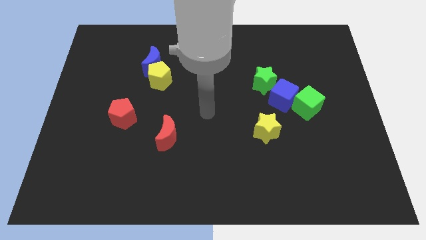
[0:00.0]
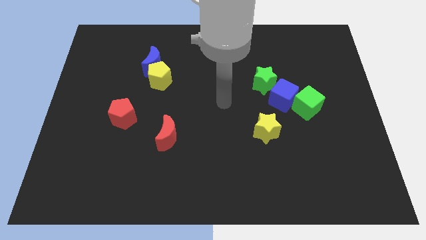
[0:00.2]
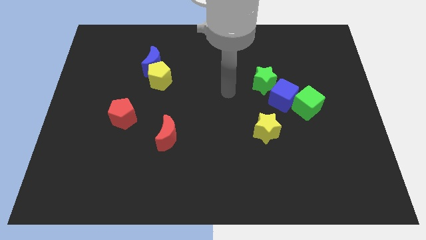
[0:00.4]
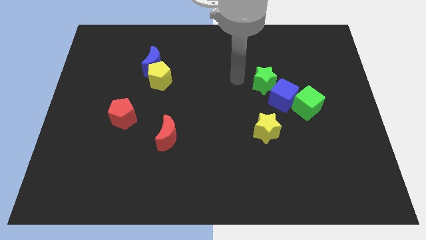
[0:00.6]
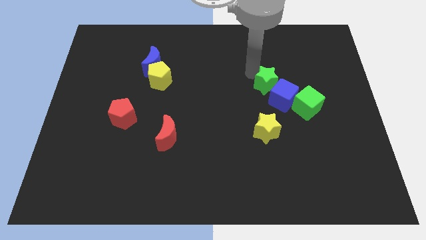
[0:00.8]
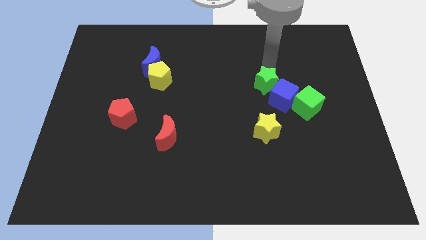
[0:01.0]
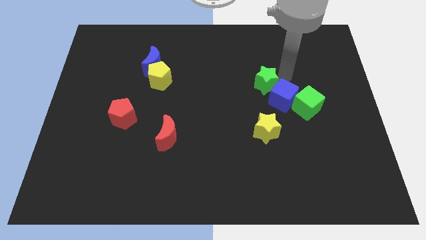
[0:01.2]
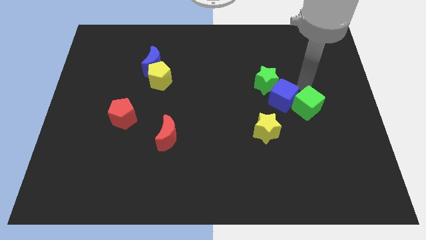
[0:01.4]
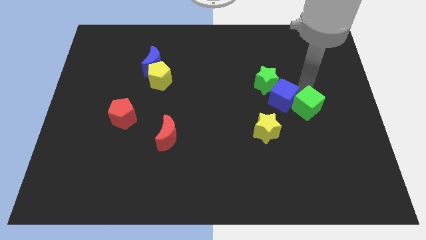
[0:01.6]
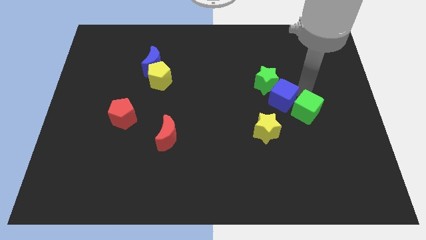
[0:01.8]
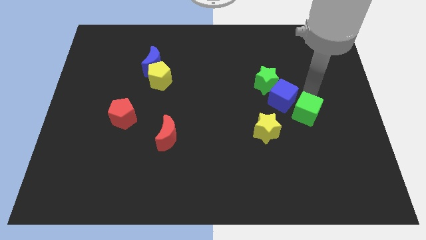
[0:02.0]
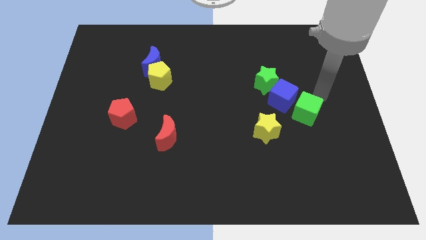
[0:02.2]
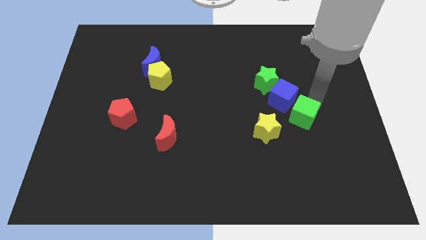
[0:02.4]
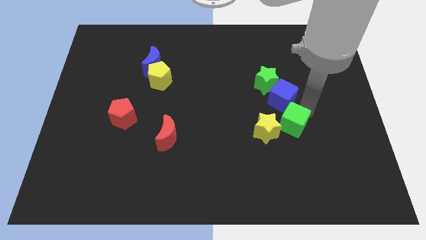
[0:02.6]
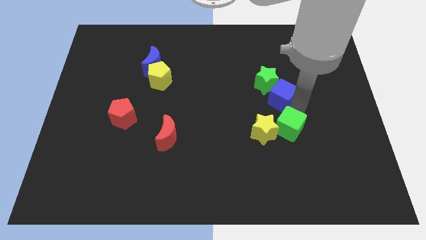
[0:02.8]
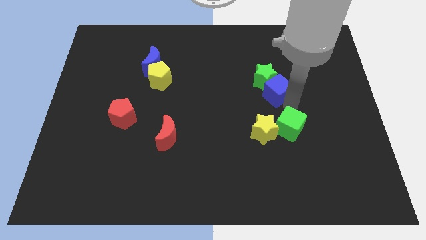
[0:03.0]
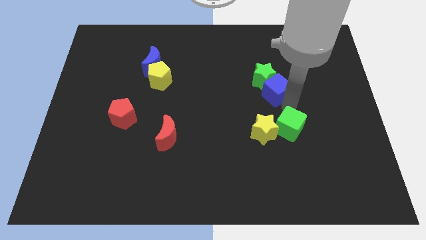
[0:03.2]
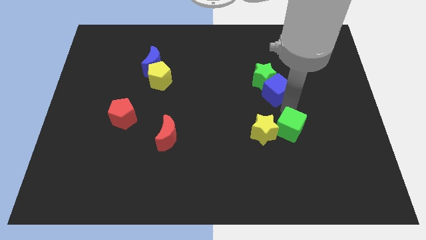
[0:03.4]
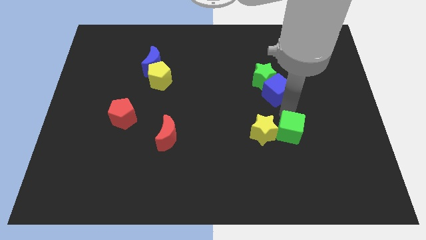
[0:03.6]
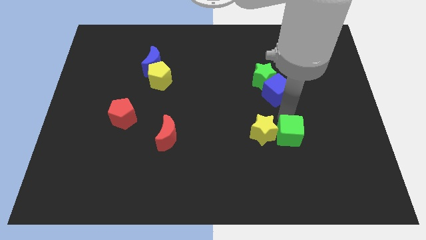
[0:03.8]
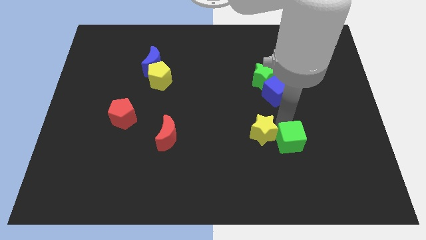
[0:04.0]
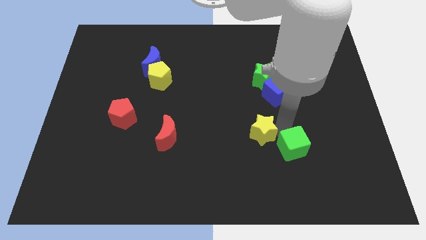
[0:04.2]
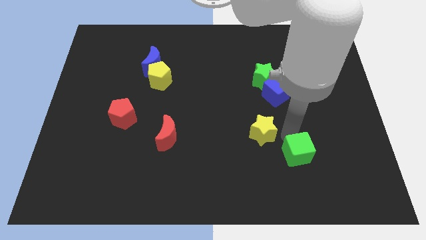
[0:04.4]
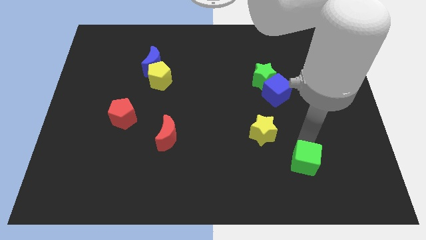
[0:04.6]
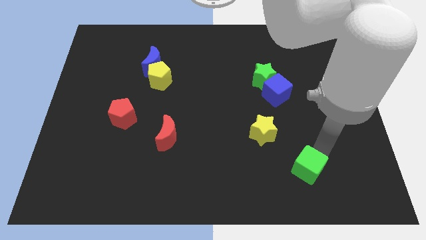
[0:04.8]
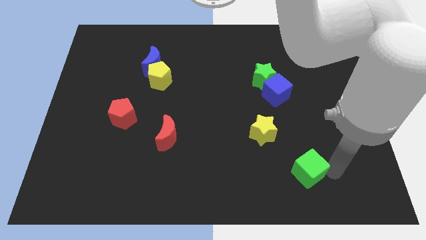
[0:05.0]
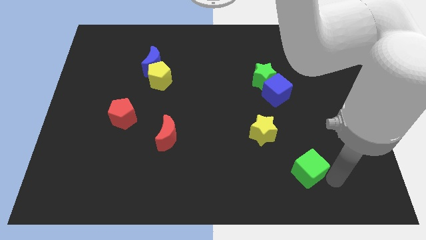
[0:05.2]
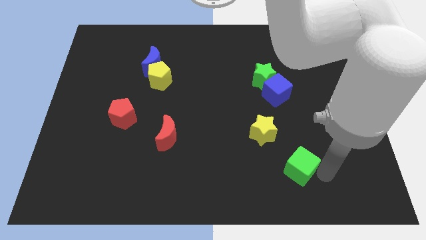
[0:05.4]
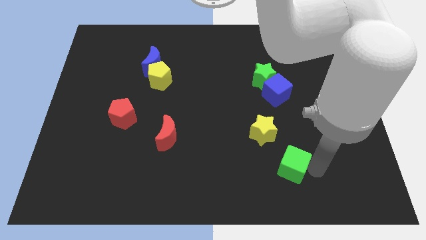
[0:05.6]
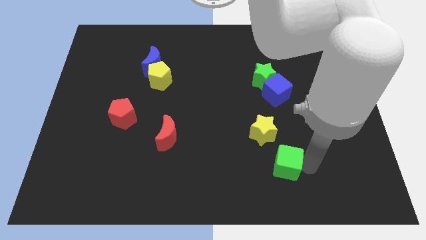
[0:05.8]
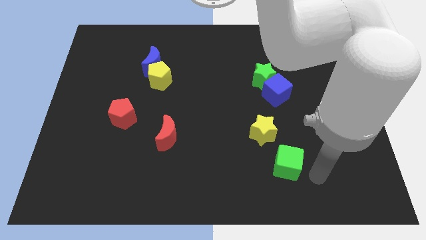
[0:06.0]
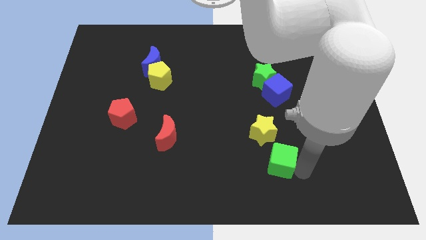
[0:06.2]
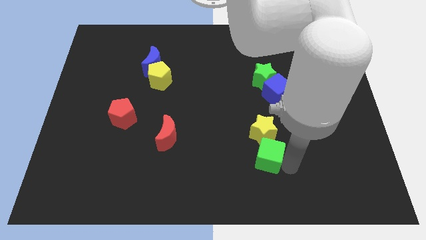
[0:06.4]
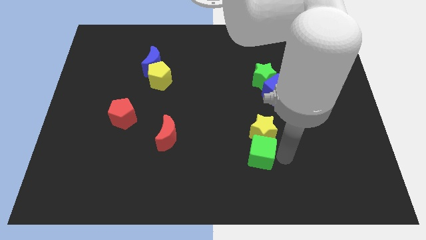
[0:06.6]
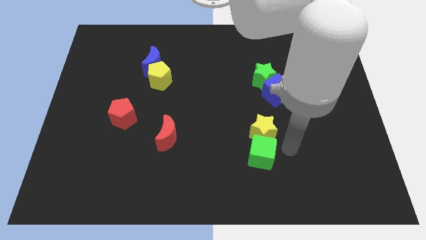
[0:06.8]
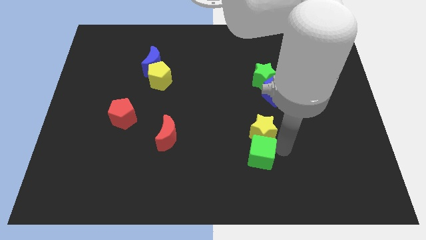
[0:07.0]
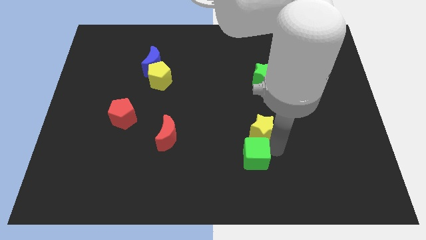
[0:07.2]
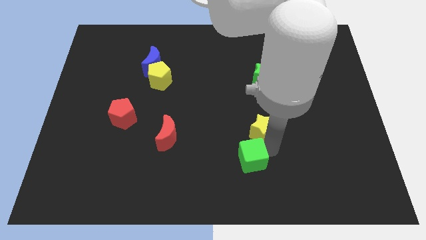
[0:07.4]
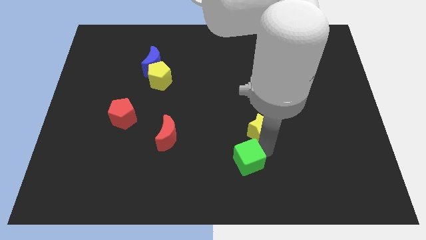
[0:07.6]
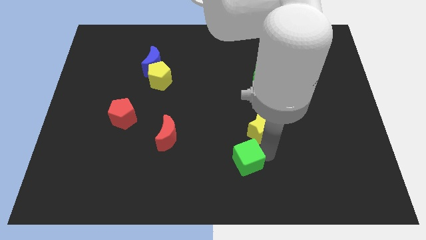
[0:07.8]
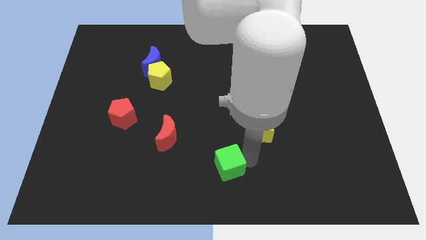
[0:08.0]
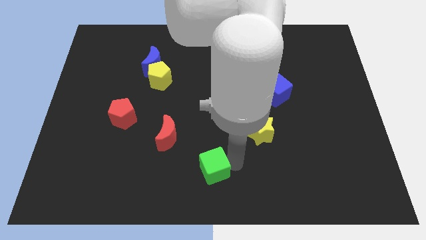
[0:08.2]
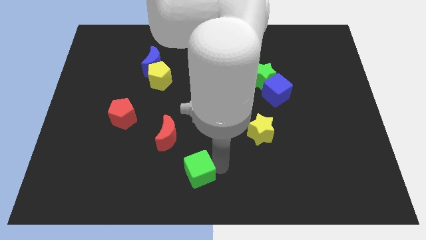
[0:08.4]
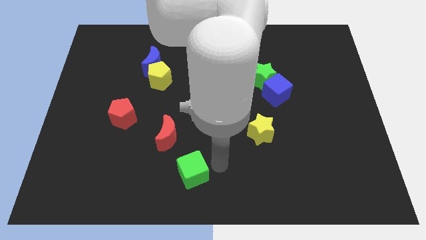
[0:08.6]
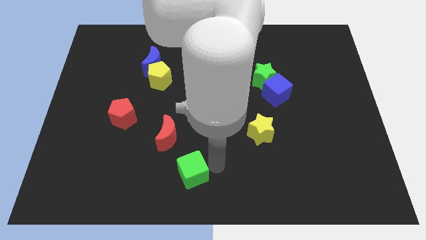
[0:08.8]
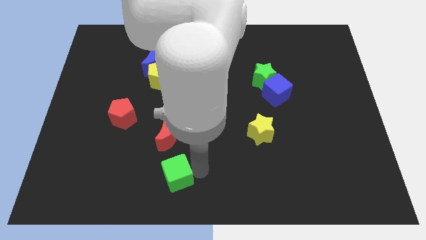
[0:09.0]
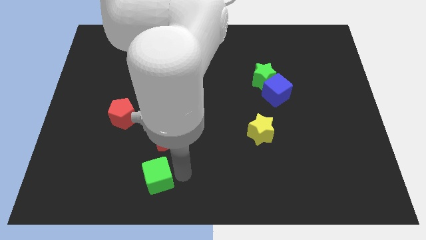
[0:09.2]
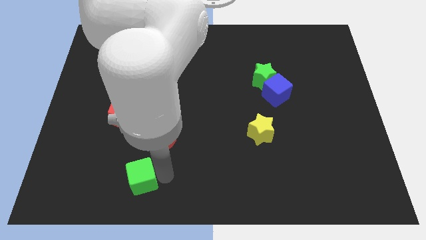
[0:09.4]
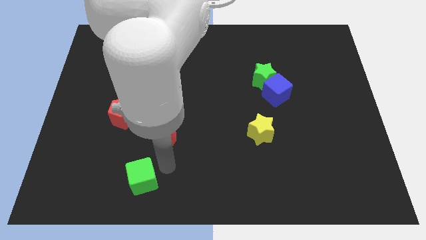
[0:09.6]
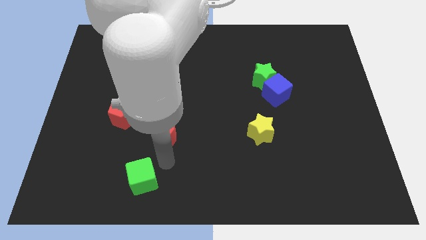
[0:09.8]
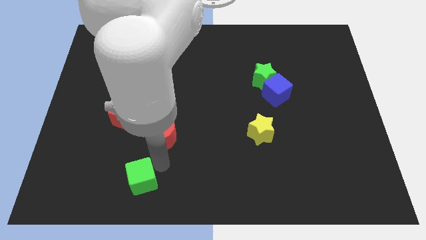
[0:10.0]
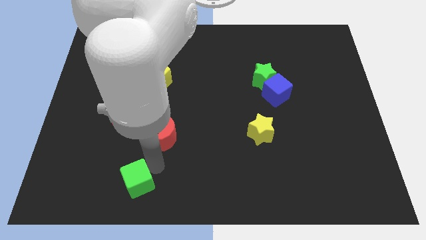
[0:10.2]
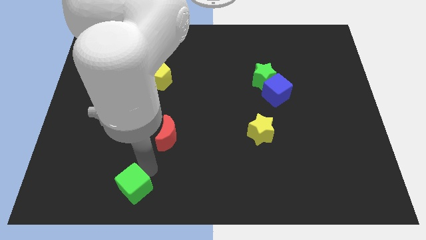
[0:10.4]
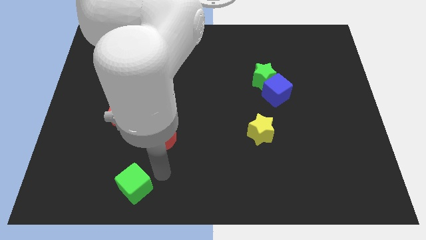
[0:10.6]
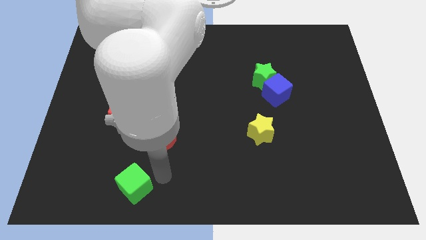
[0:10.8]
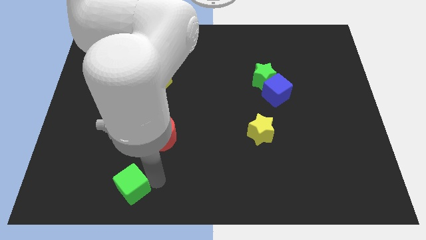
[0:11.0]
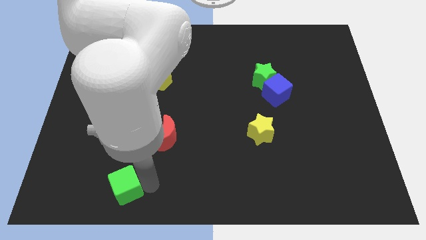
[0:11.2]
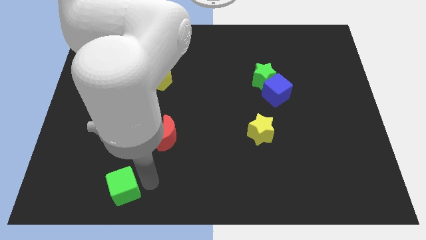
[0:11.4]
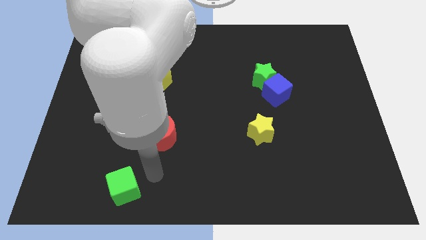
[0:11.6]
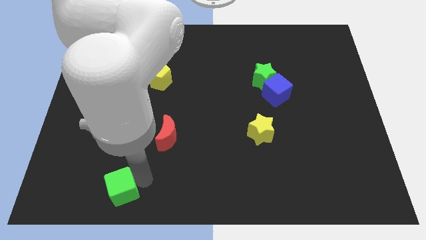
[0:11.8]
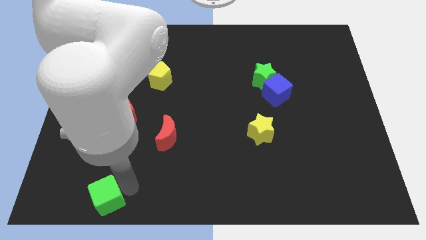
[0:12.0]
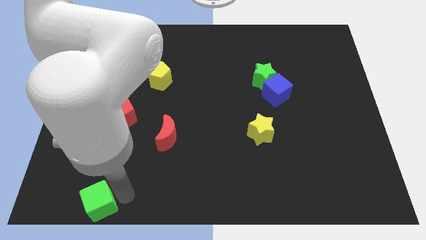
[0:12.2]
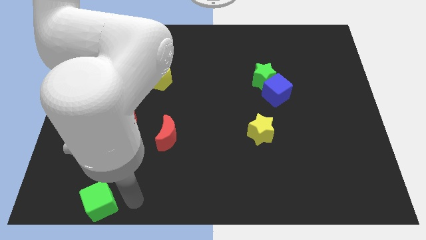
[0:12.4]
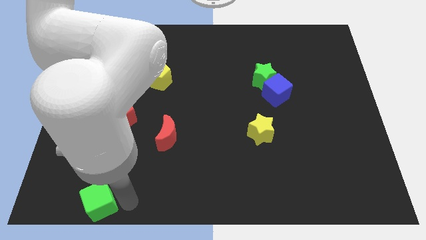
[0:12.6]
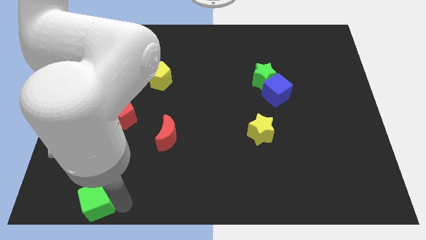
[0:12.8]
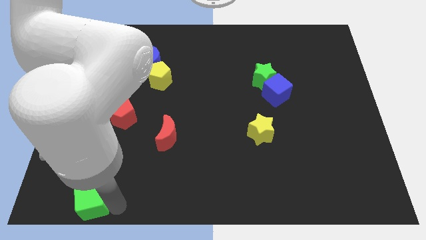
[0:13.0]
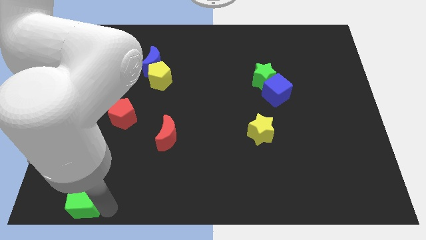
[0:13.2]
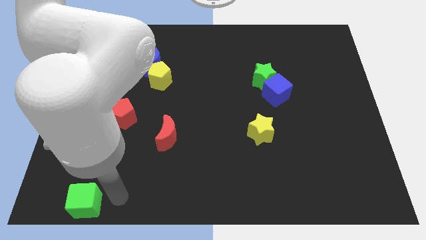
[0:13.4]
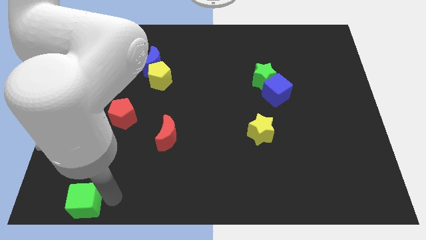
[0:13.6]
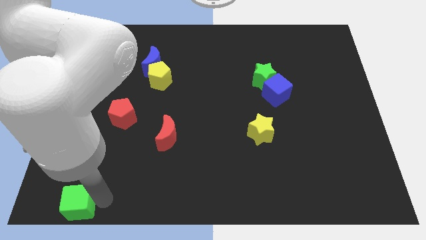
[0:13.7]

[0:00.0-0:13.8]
put the green cube to the bottom left
